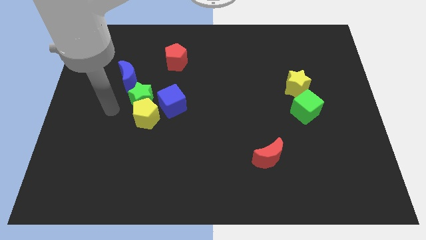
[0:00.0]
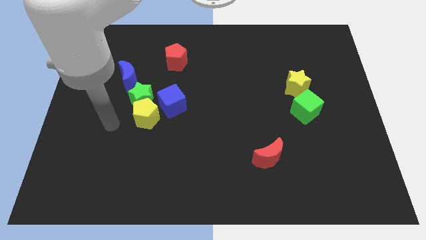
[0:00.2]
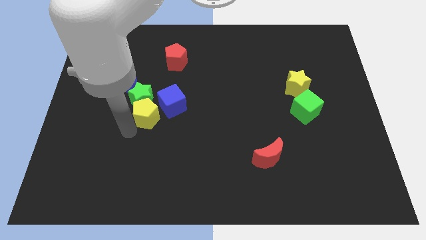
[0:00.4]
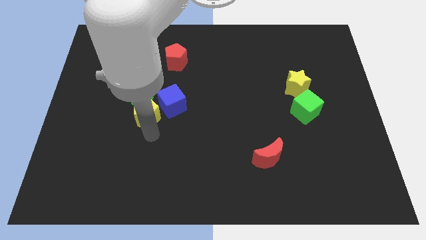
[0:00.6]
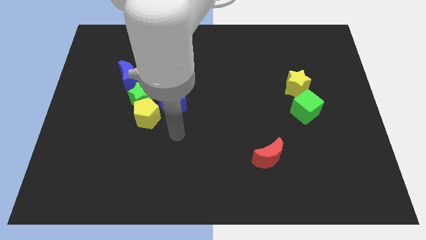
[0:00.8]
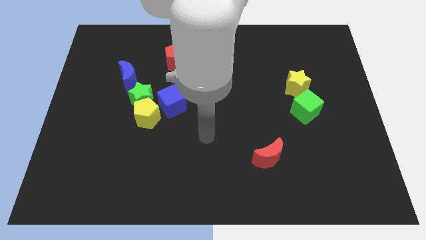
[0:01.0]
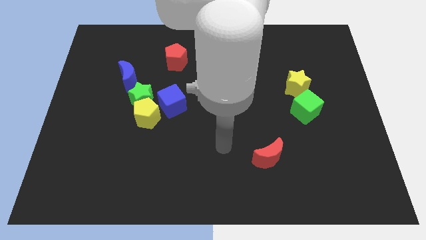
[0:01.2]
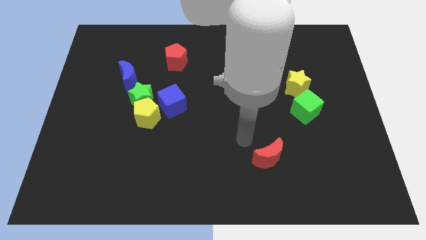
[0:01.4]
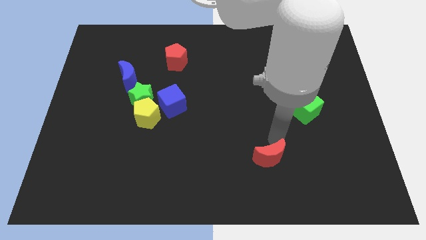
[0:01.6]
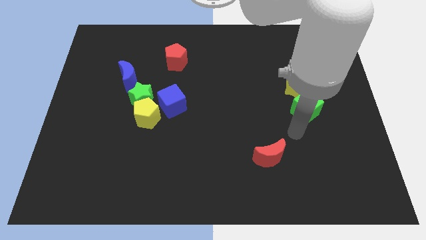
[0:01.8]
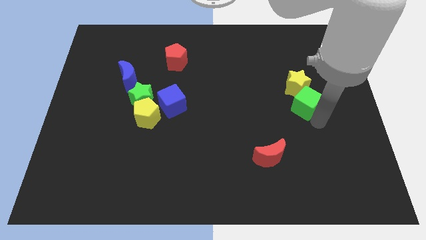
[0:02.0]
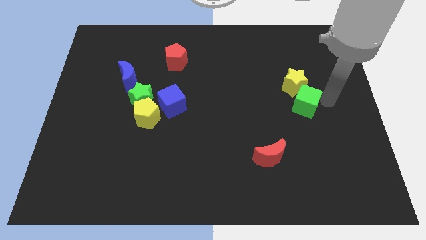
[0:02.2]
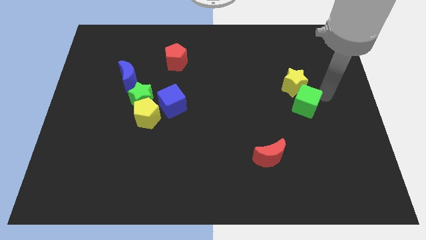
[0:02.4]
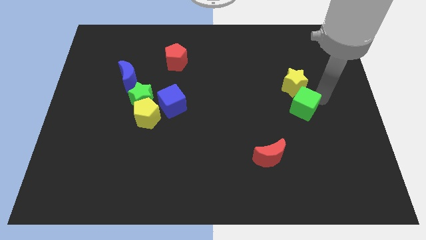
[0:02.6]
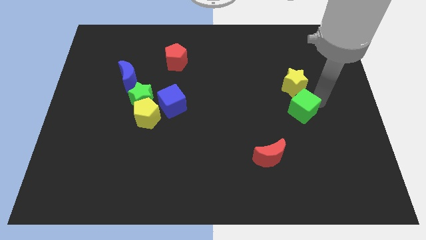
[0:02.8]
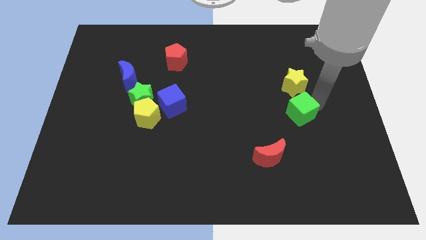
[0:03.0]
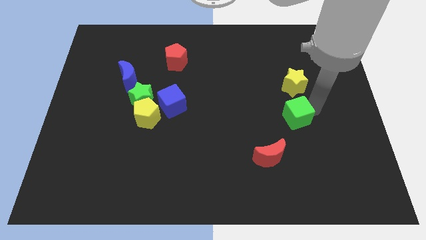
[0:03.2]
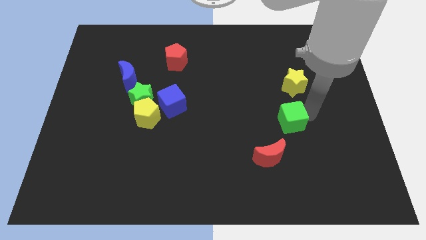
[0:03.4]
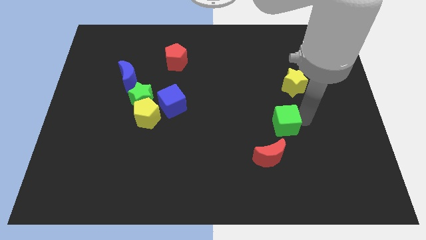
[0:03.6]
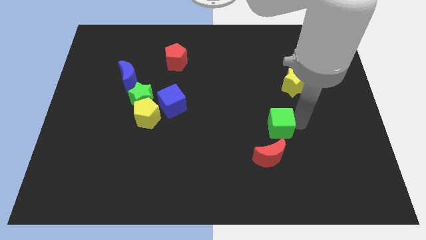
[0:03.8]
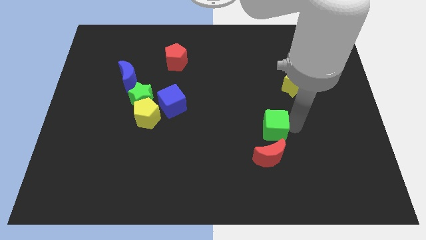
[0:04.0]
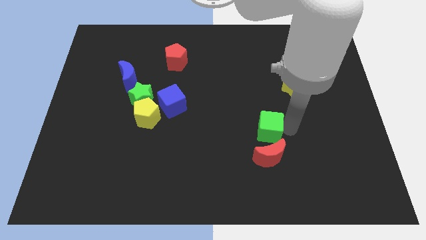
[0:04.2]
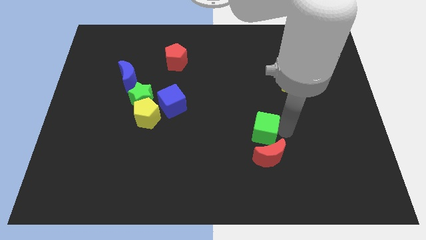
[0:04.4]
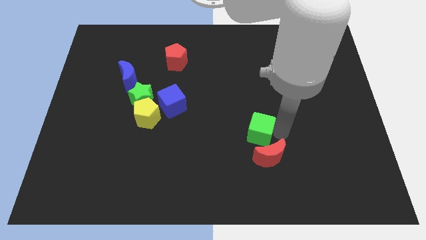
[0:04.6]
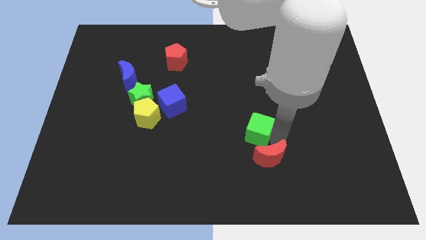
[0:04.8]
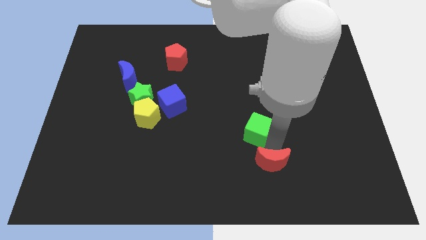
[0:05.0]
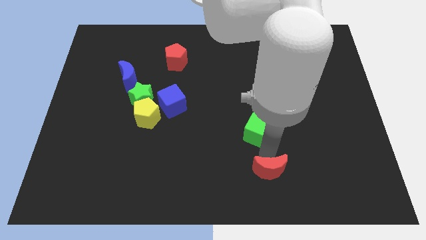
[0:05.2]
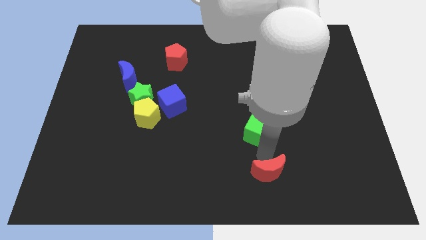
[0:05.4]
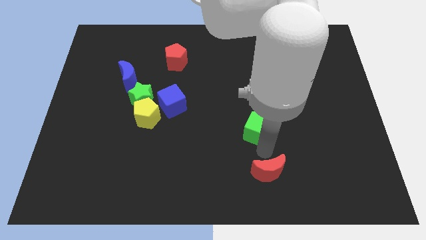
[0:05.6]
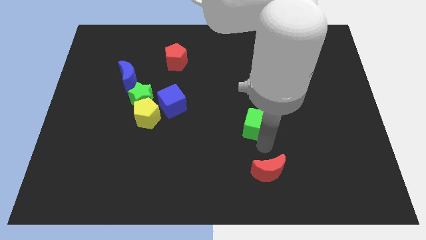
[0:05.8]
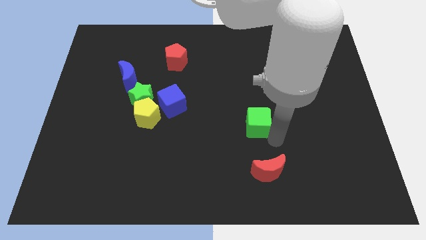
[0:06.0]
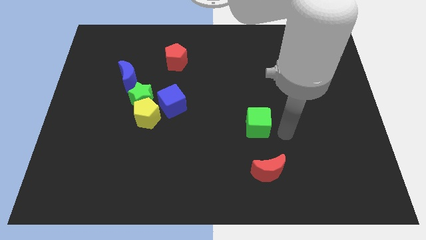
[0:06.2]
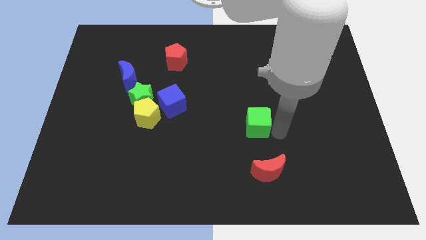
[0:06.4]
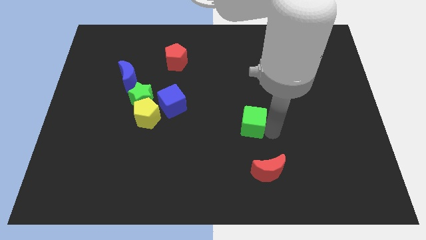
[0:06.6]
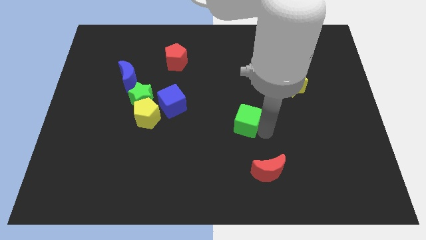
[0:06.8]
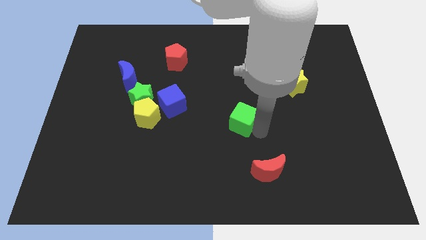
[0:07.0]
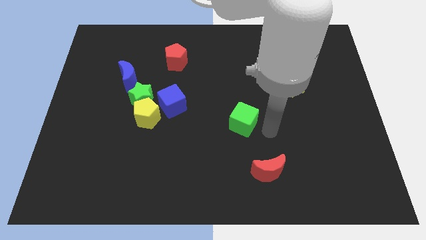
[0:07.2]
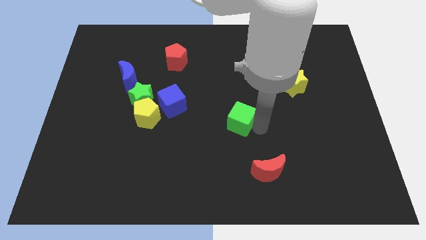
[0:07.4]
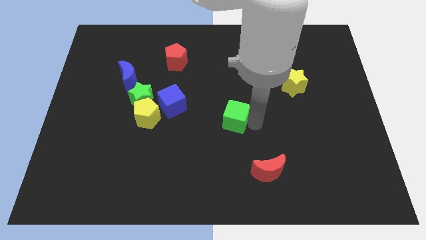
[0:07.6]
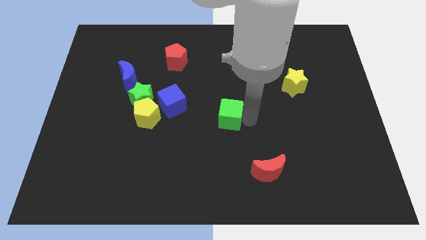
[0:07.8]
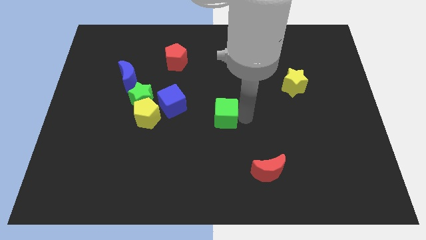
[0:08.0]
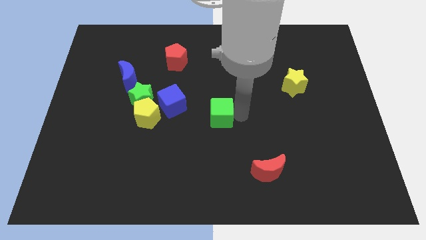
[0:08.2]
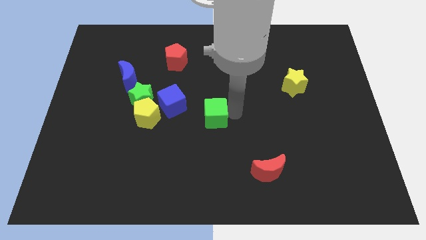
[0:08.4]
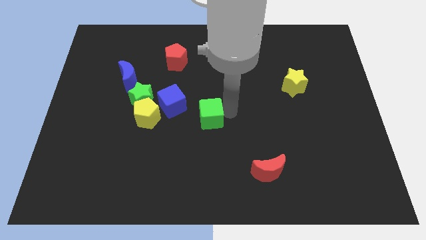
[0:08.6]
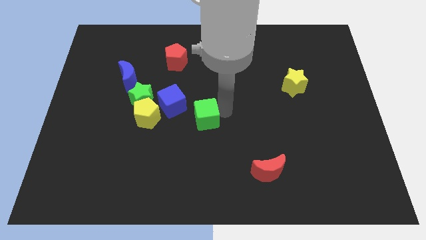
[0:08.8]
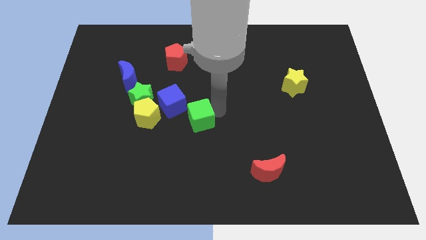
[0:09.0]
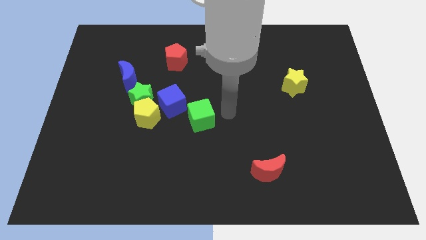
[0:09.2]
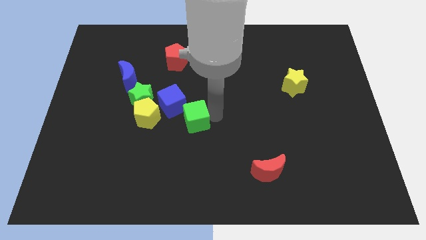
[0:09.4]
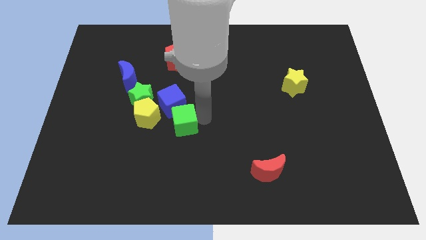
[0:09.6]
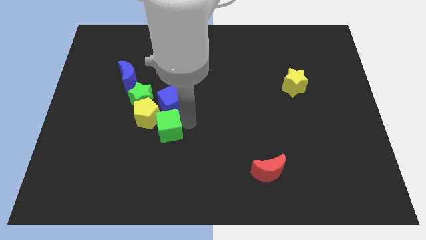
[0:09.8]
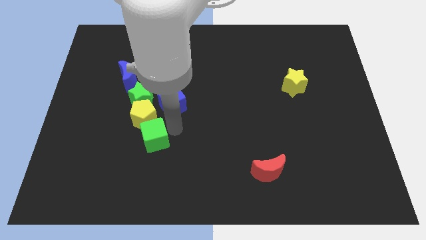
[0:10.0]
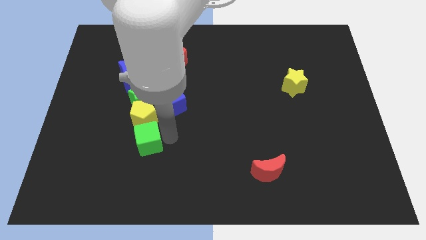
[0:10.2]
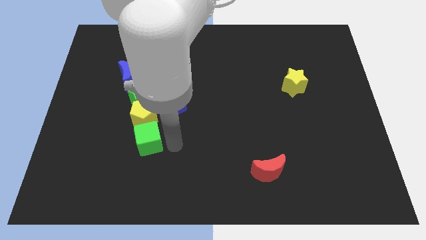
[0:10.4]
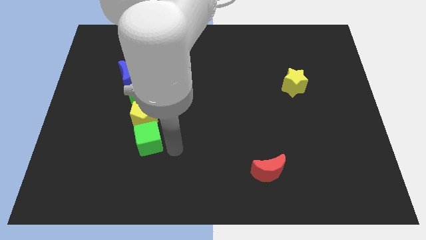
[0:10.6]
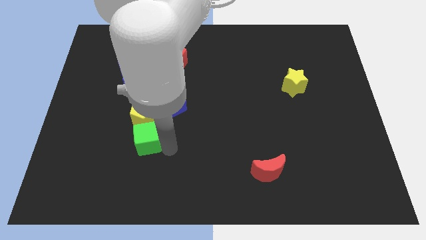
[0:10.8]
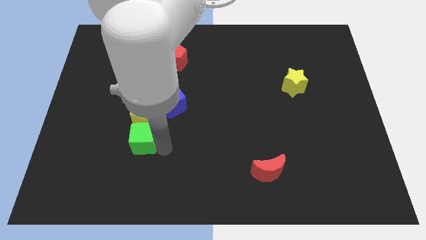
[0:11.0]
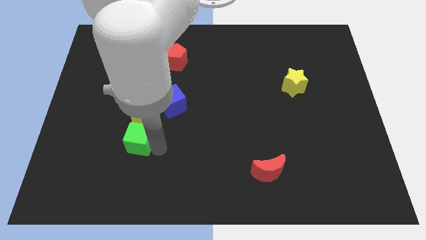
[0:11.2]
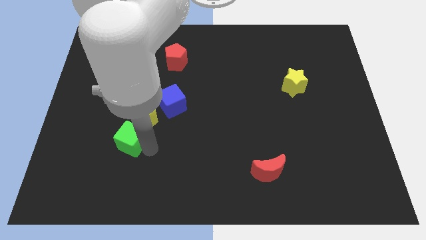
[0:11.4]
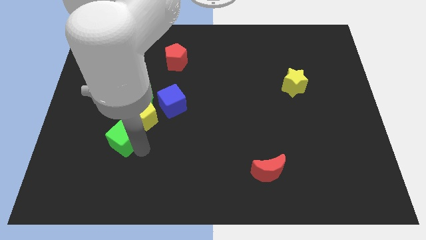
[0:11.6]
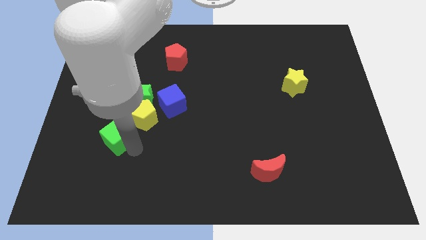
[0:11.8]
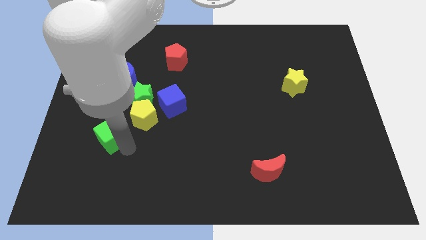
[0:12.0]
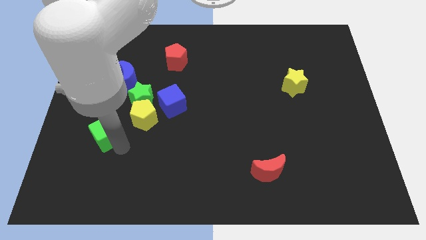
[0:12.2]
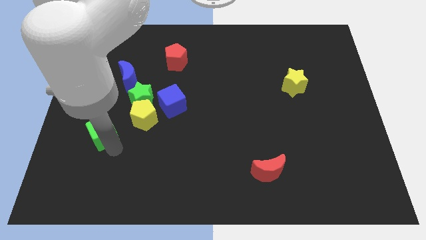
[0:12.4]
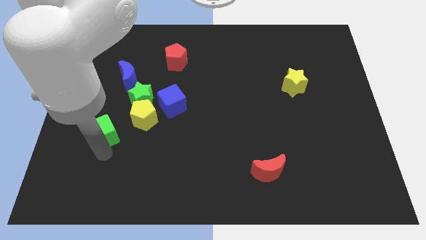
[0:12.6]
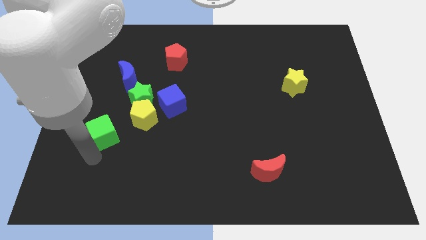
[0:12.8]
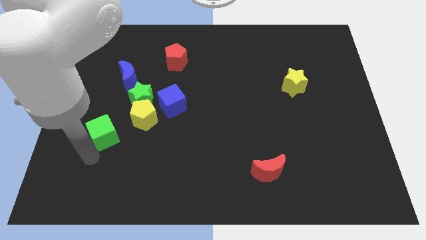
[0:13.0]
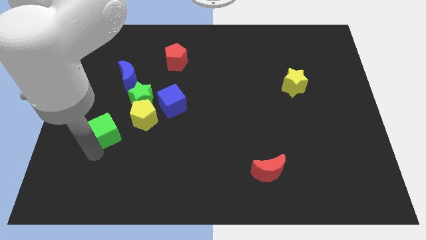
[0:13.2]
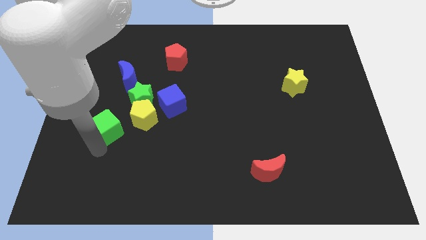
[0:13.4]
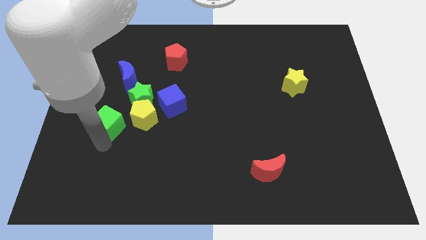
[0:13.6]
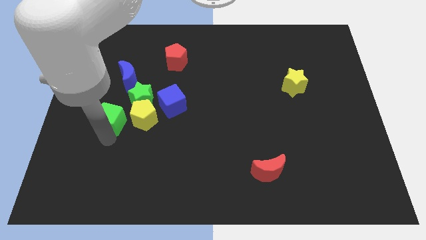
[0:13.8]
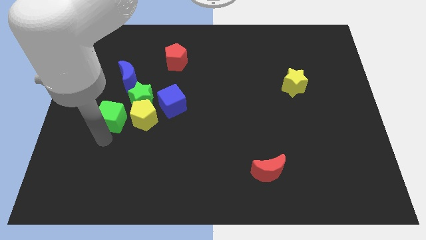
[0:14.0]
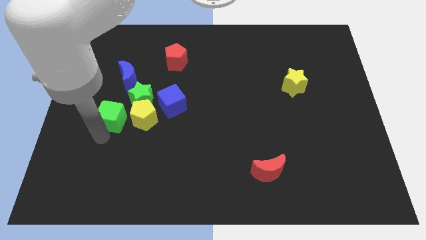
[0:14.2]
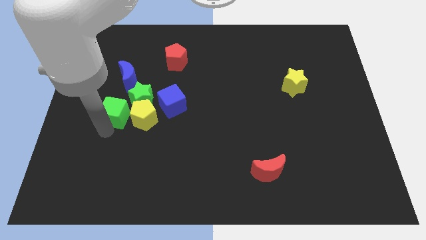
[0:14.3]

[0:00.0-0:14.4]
put the green cube diagonally up and to the left of the yellow pentagon
